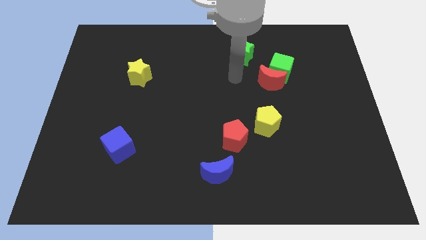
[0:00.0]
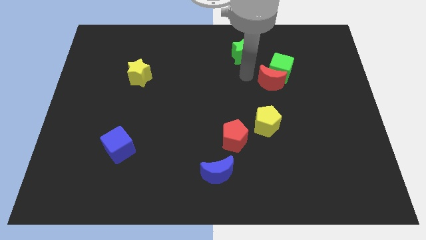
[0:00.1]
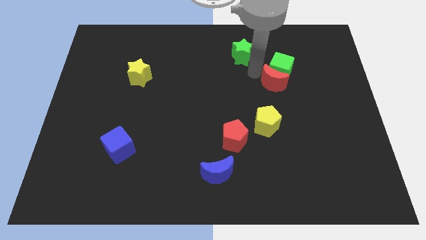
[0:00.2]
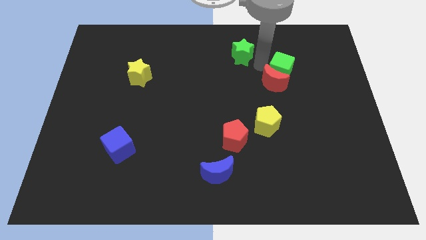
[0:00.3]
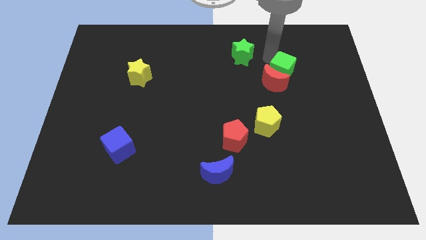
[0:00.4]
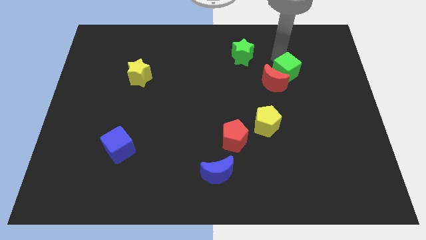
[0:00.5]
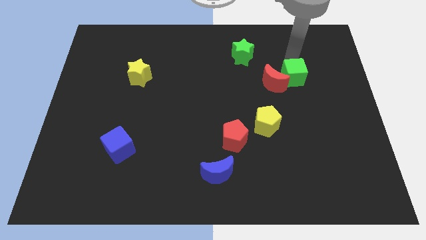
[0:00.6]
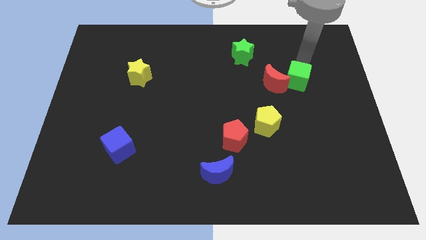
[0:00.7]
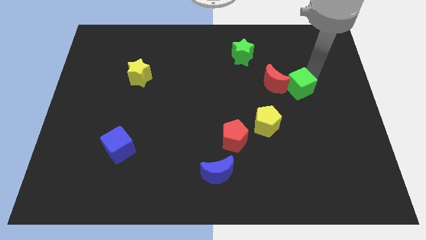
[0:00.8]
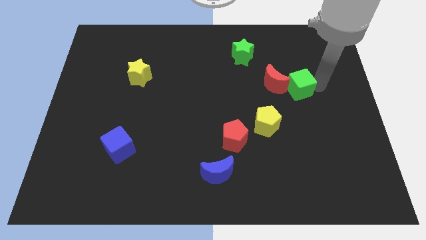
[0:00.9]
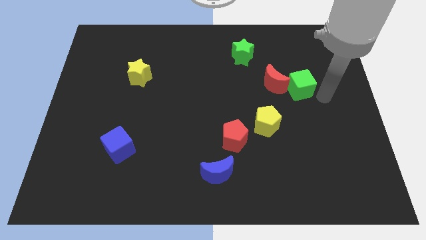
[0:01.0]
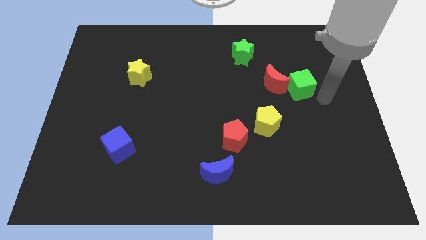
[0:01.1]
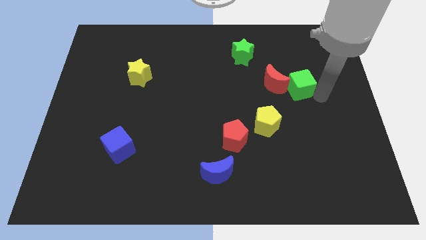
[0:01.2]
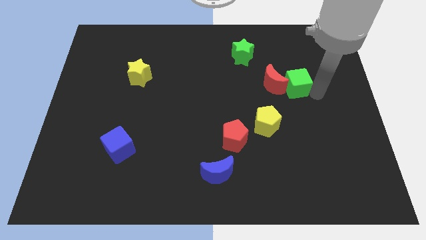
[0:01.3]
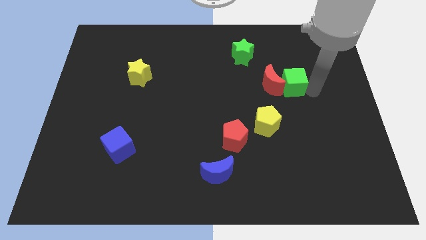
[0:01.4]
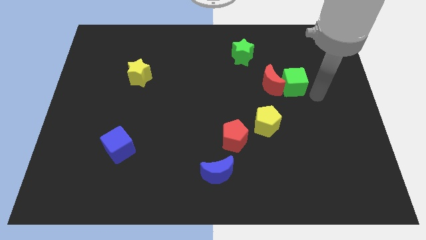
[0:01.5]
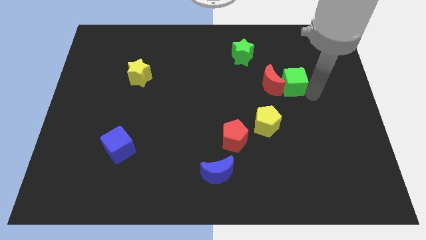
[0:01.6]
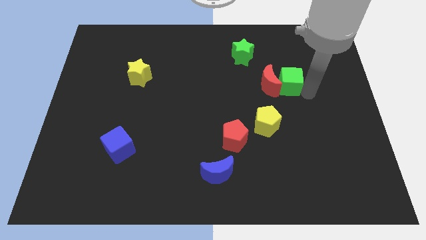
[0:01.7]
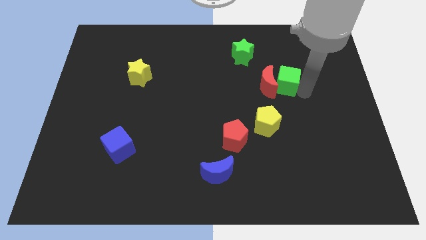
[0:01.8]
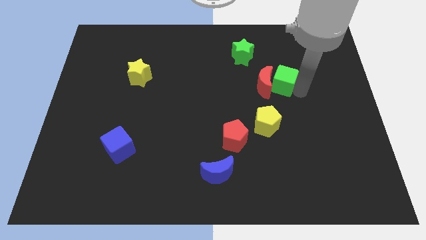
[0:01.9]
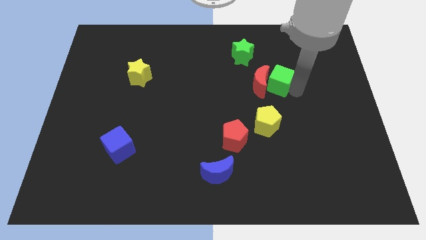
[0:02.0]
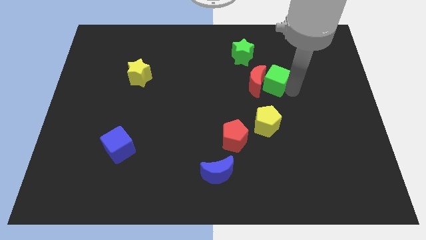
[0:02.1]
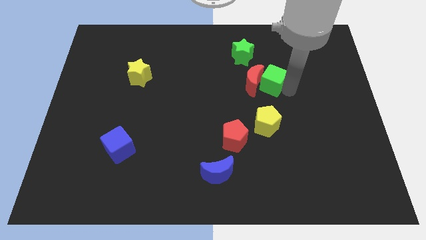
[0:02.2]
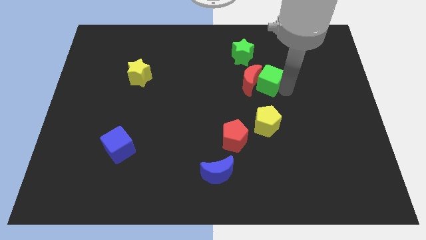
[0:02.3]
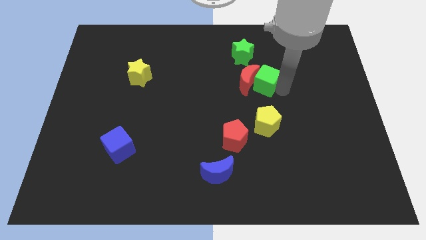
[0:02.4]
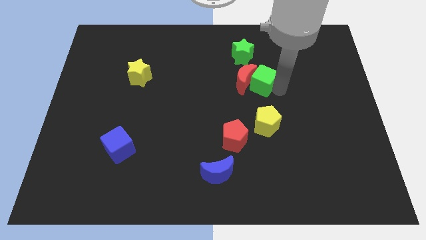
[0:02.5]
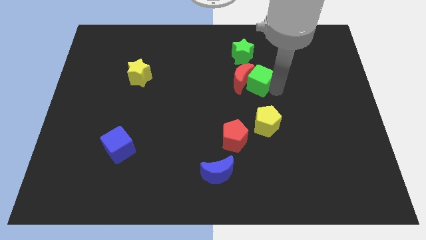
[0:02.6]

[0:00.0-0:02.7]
slide the green cube down and left somewhat

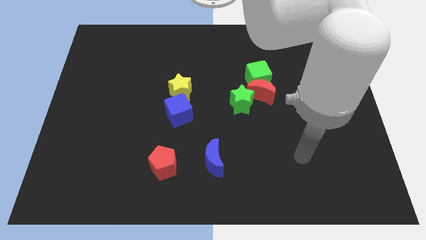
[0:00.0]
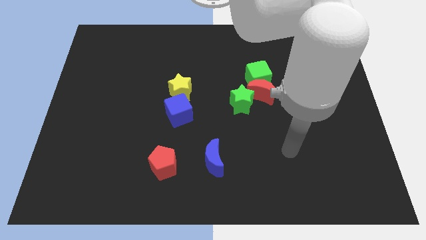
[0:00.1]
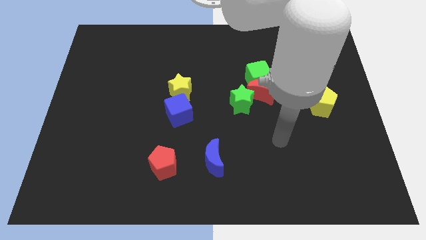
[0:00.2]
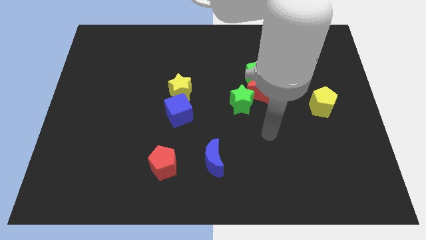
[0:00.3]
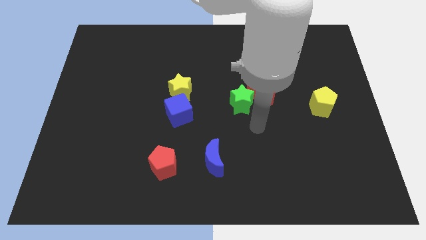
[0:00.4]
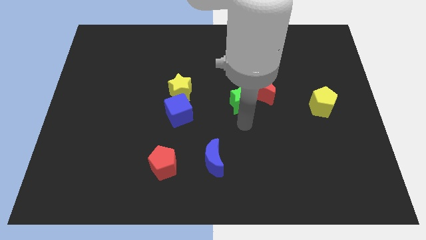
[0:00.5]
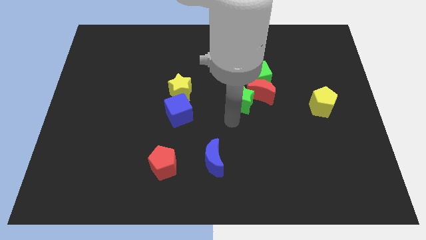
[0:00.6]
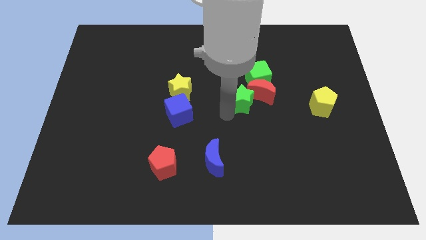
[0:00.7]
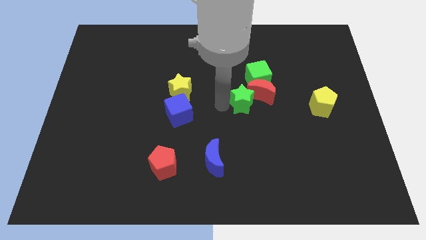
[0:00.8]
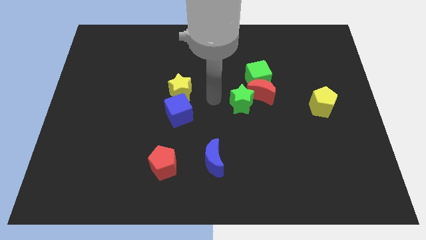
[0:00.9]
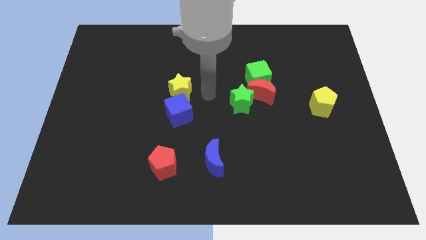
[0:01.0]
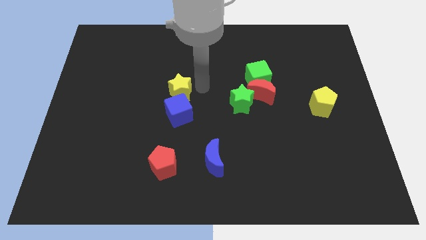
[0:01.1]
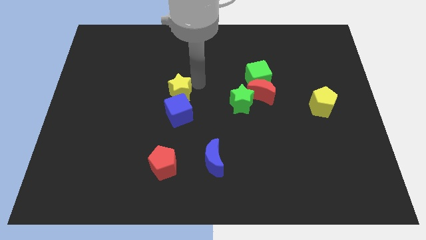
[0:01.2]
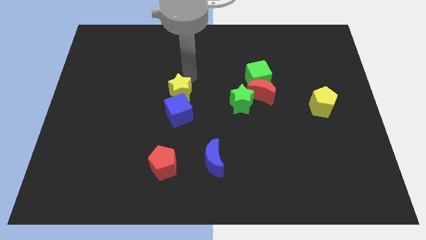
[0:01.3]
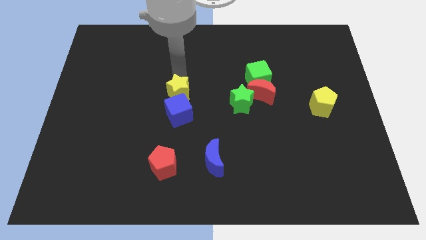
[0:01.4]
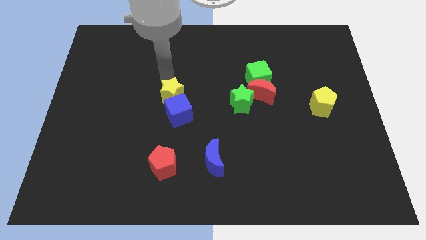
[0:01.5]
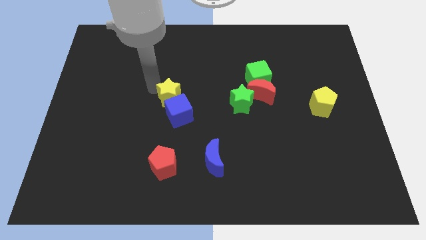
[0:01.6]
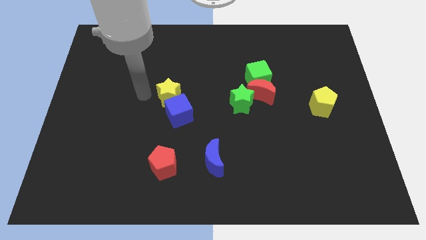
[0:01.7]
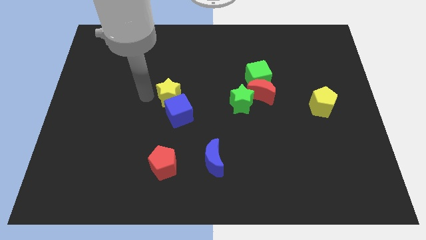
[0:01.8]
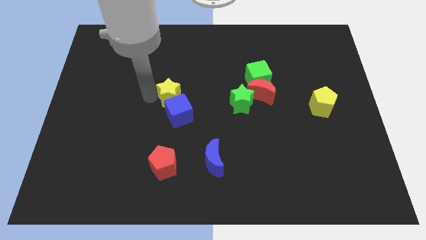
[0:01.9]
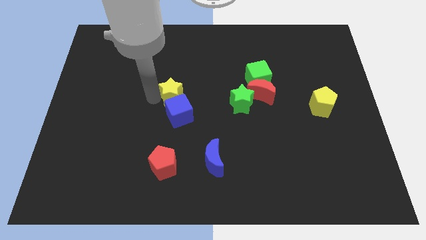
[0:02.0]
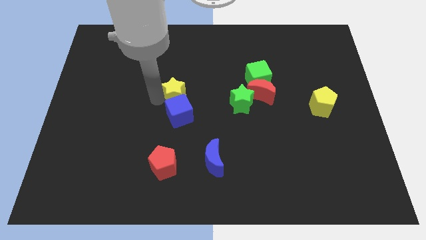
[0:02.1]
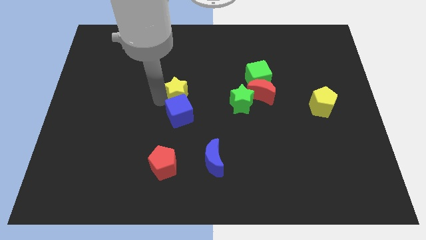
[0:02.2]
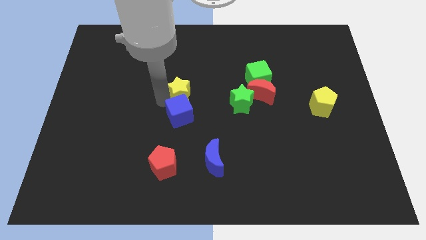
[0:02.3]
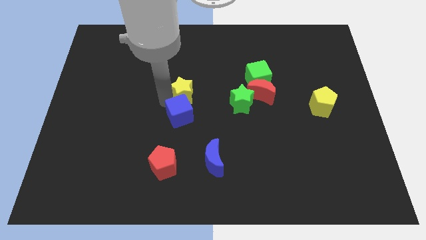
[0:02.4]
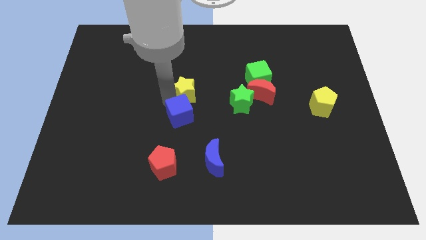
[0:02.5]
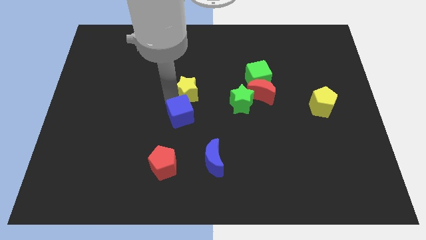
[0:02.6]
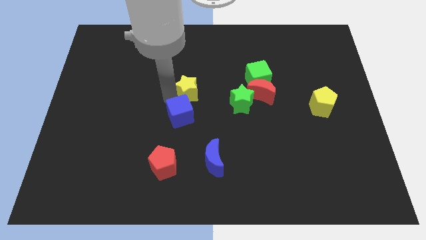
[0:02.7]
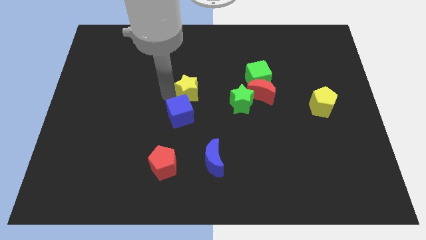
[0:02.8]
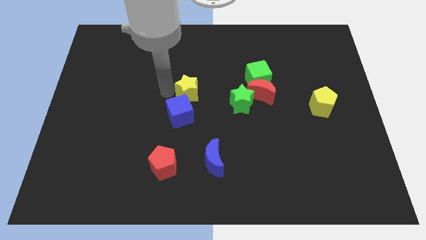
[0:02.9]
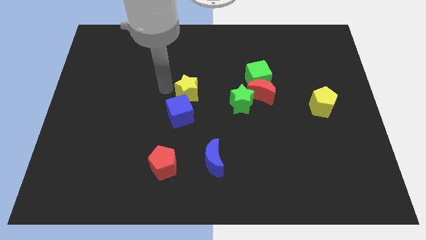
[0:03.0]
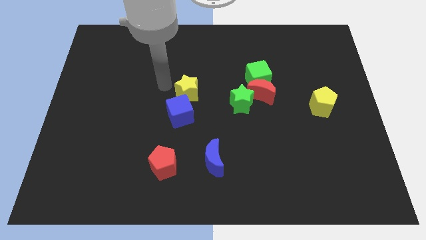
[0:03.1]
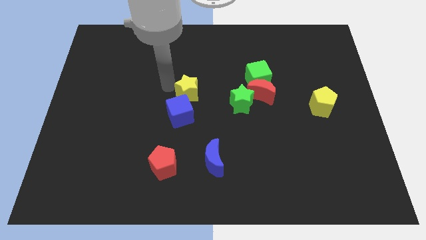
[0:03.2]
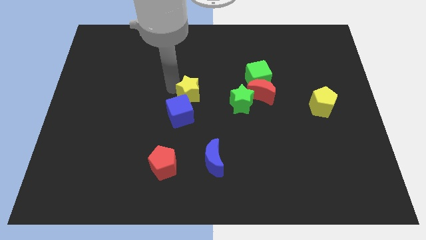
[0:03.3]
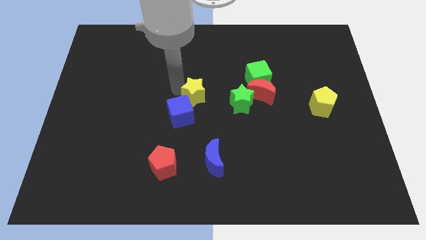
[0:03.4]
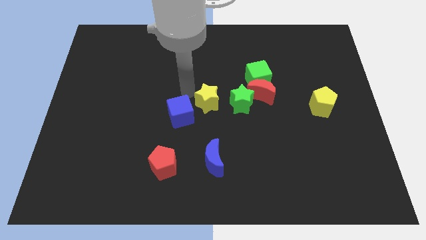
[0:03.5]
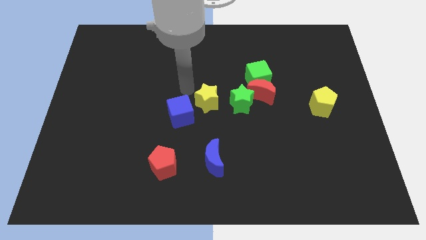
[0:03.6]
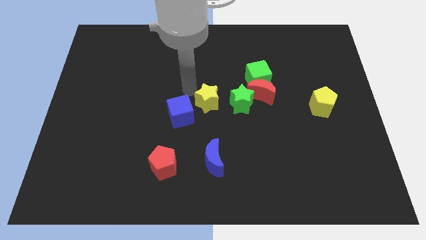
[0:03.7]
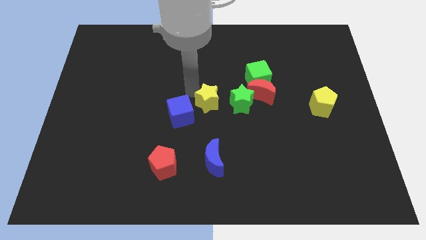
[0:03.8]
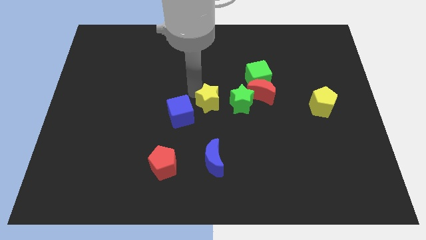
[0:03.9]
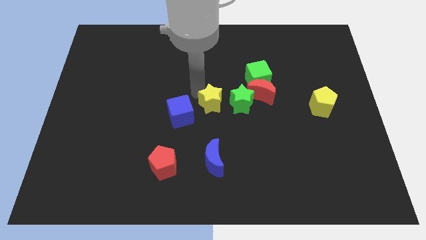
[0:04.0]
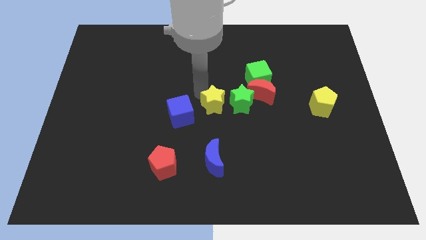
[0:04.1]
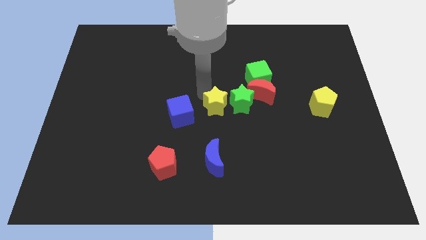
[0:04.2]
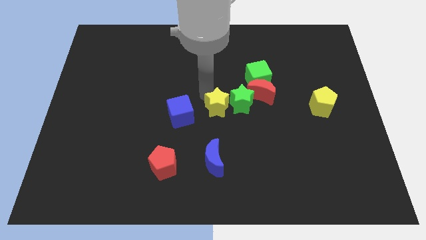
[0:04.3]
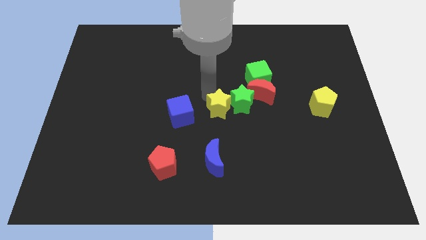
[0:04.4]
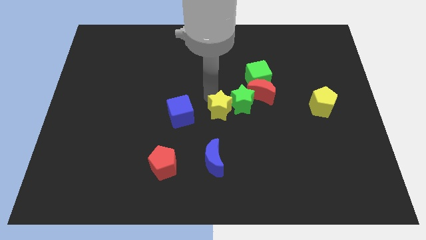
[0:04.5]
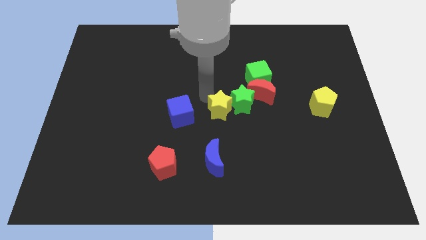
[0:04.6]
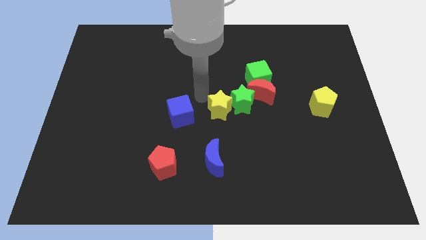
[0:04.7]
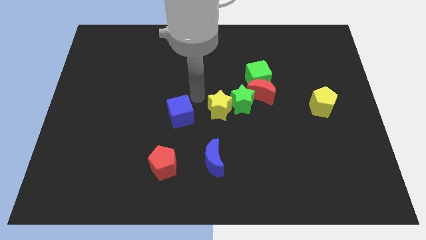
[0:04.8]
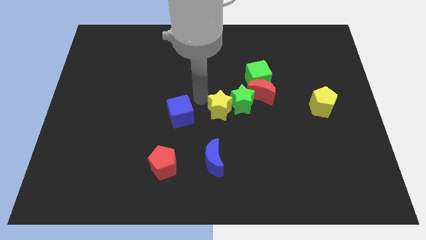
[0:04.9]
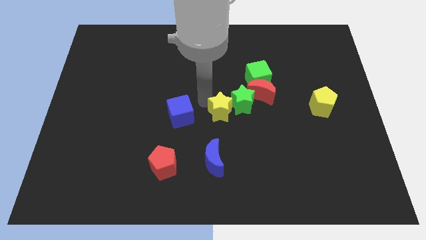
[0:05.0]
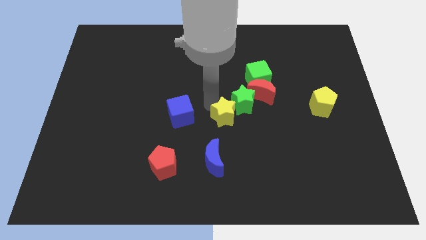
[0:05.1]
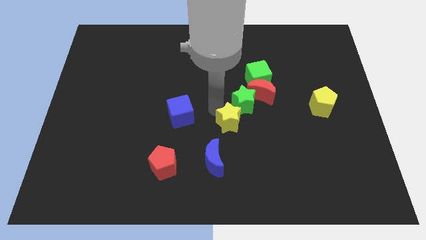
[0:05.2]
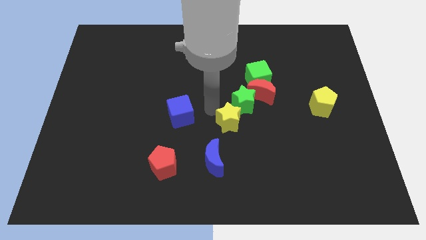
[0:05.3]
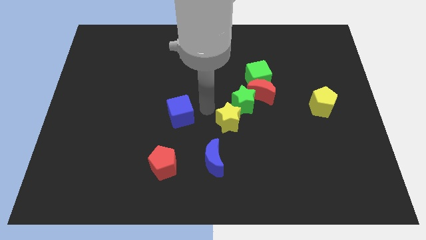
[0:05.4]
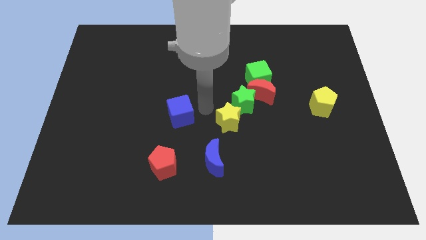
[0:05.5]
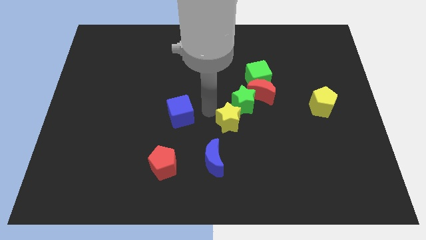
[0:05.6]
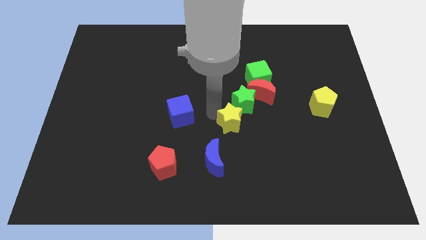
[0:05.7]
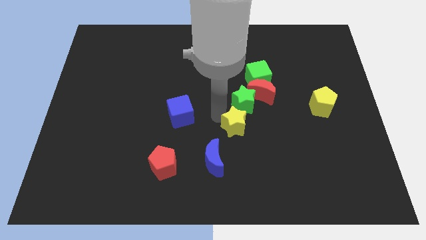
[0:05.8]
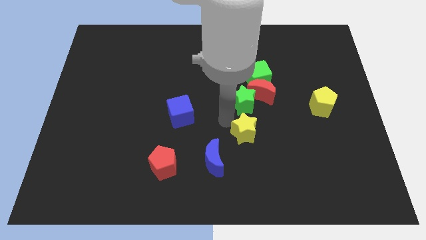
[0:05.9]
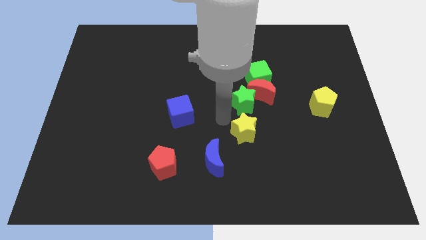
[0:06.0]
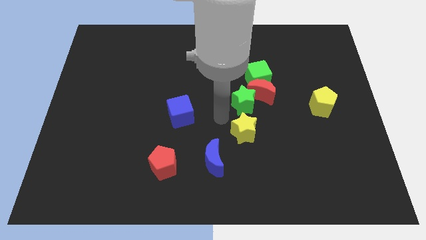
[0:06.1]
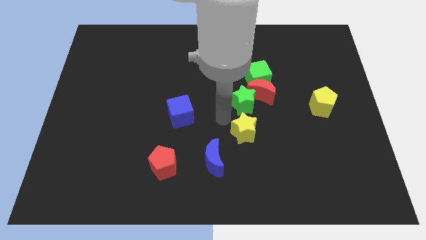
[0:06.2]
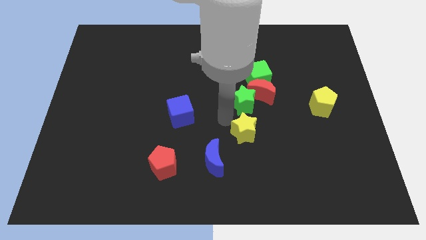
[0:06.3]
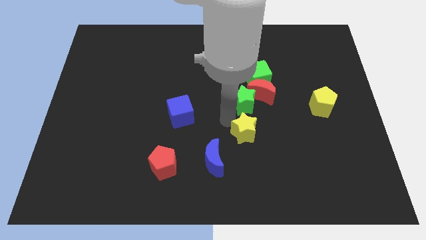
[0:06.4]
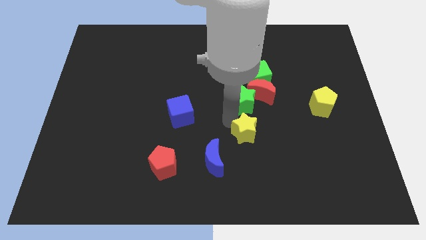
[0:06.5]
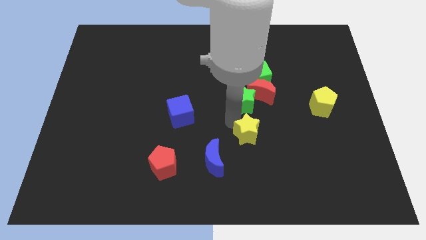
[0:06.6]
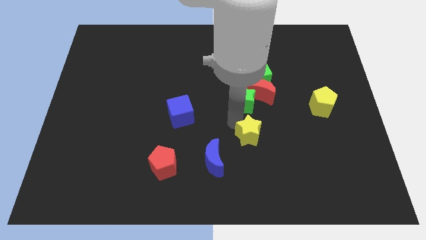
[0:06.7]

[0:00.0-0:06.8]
slide the yellow star down and right diagonally
